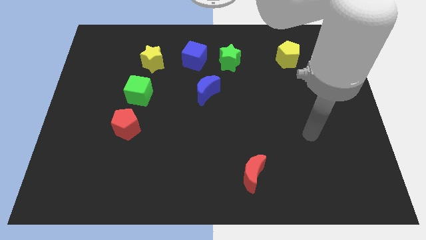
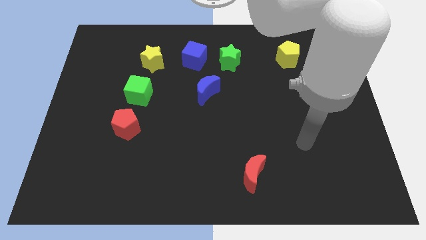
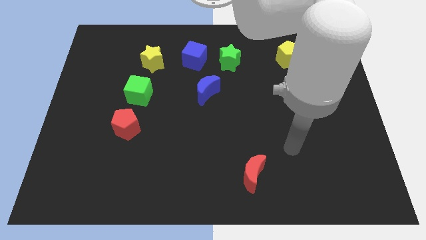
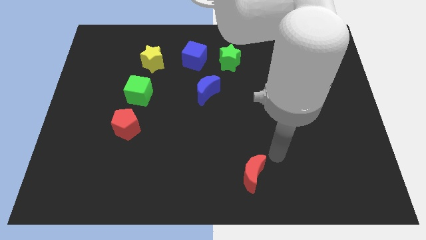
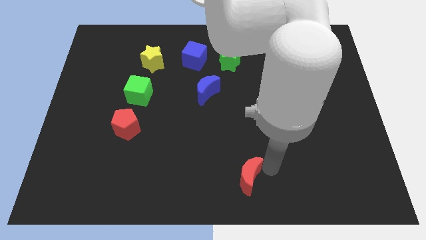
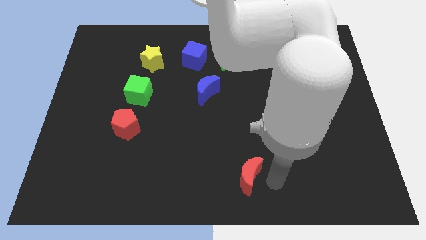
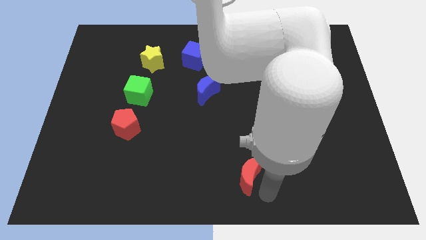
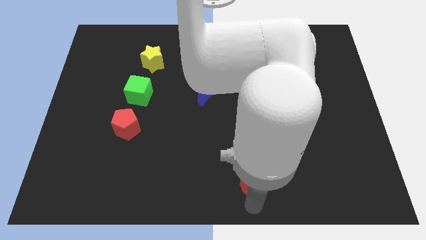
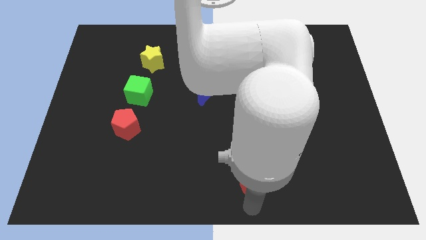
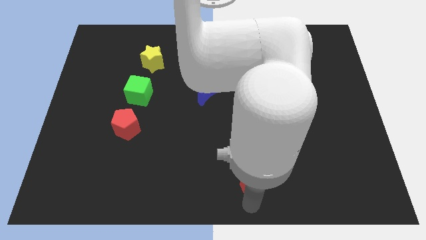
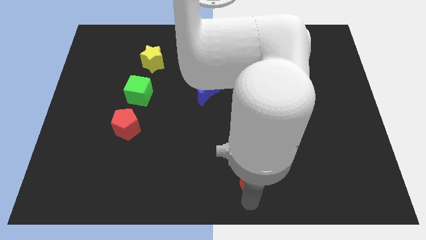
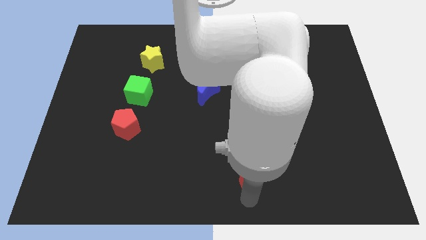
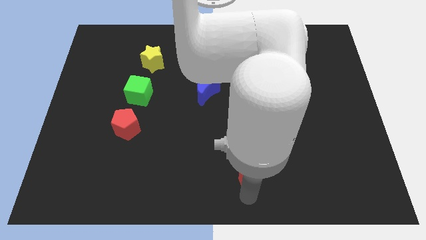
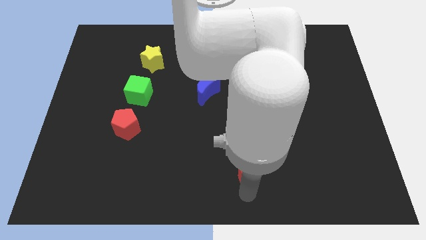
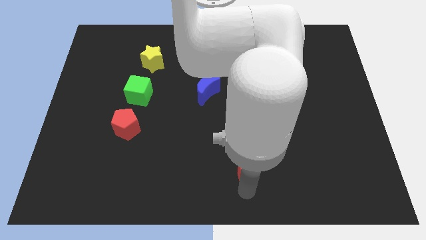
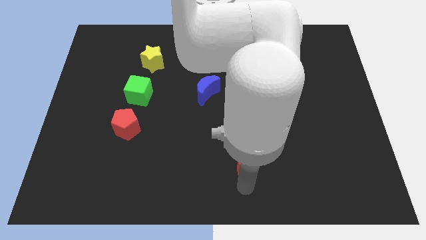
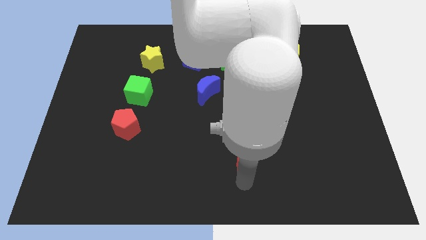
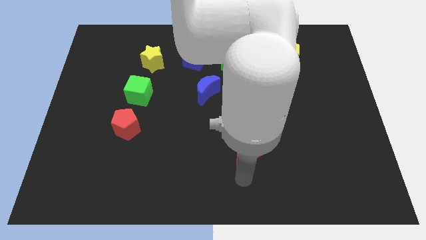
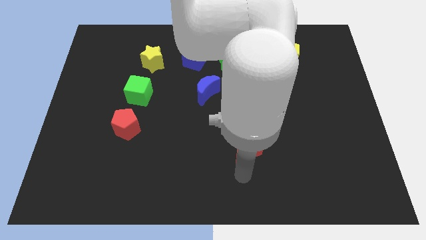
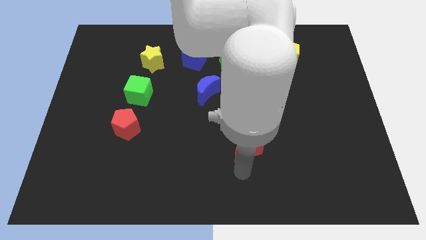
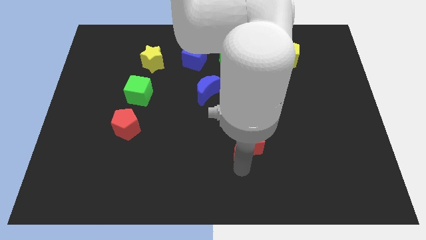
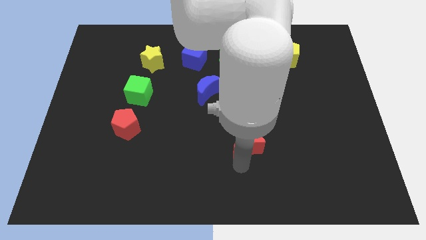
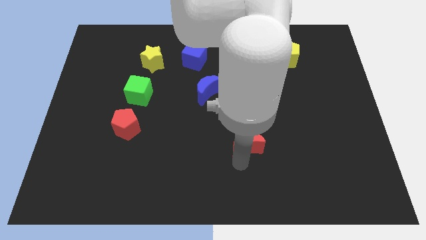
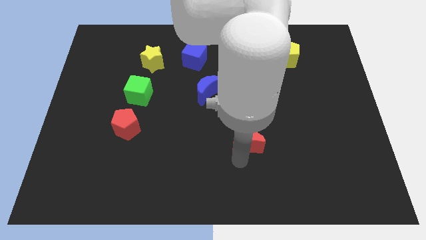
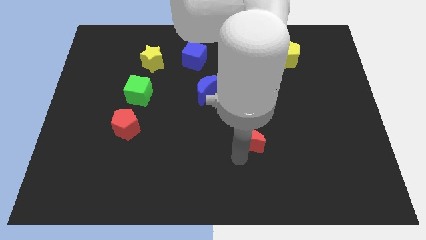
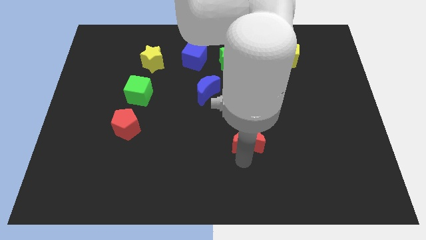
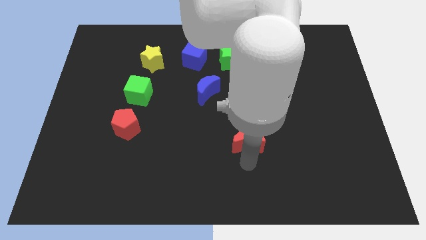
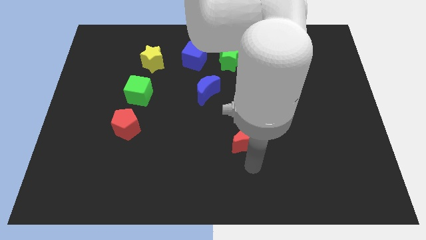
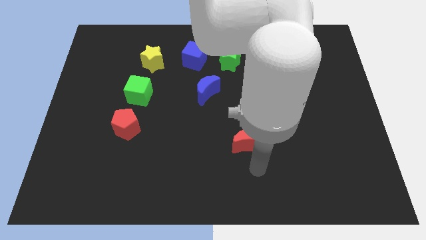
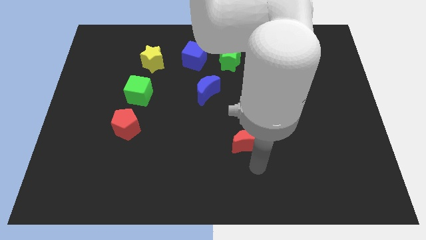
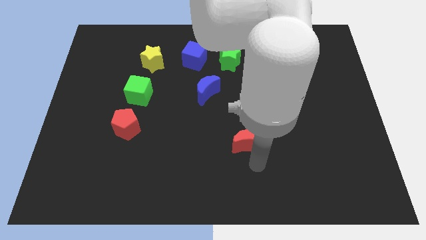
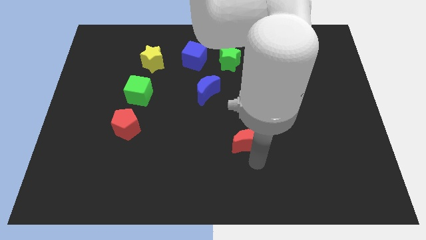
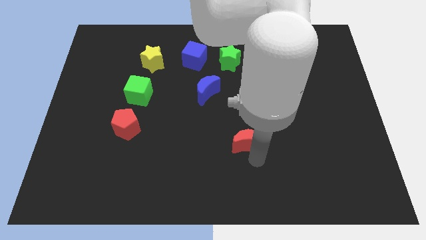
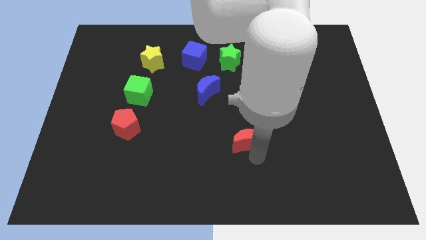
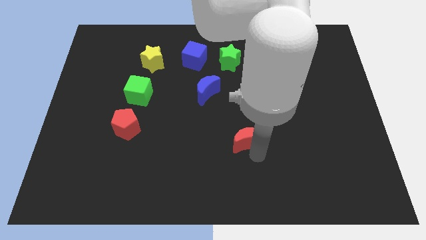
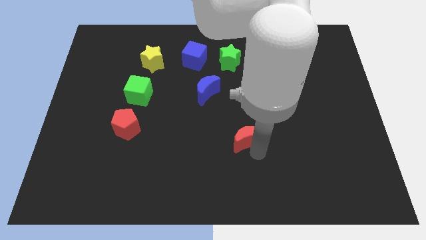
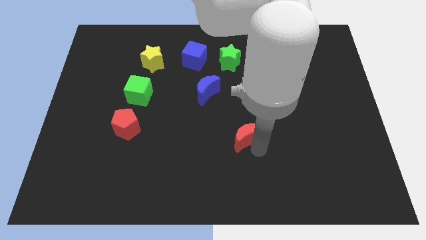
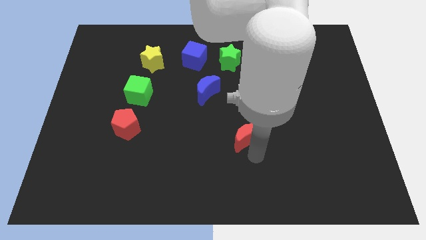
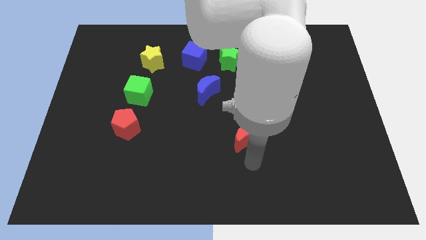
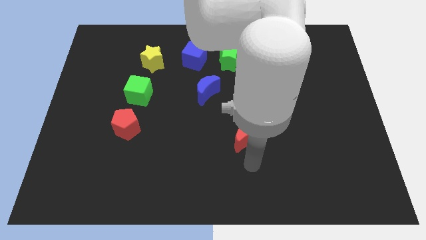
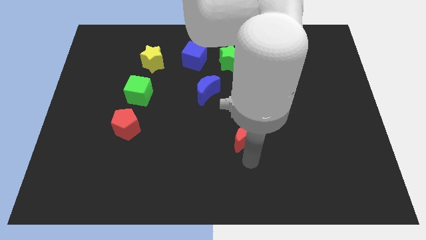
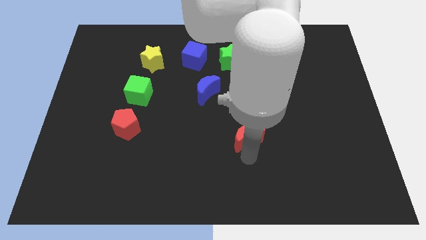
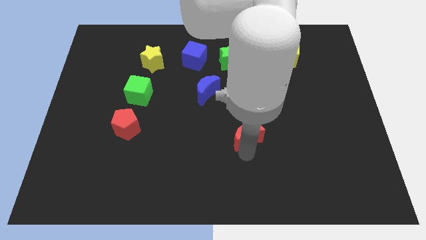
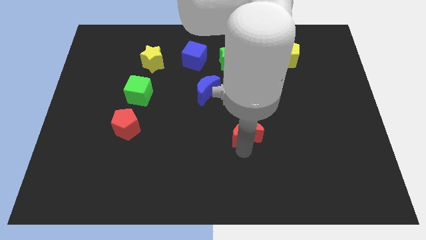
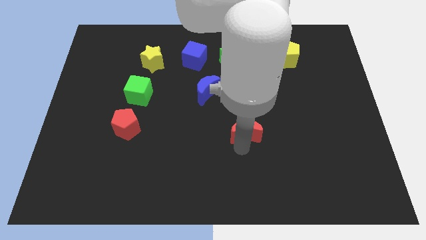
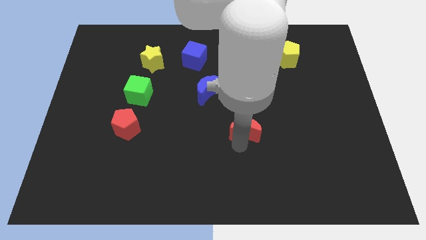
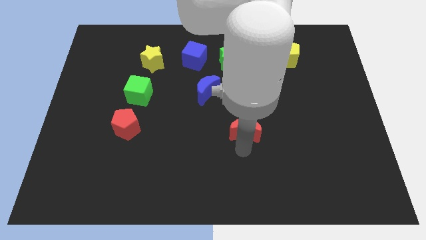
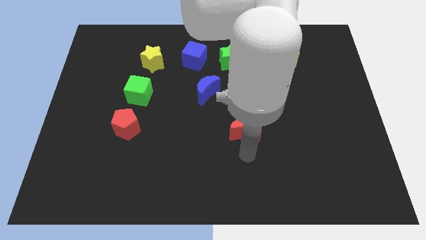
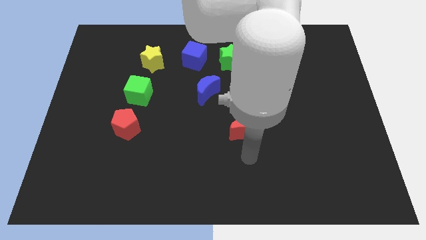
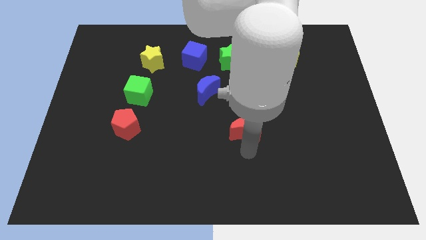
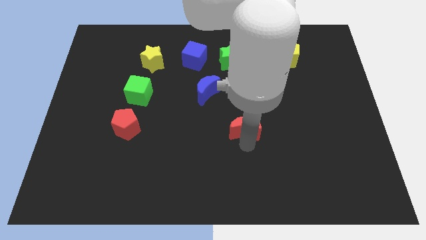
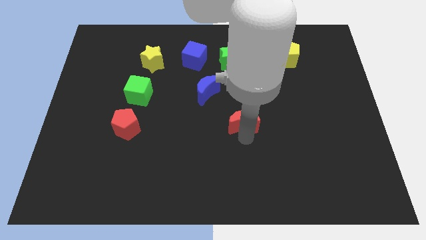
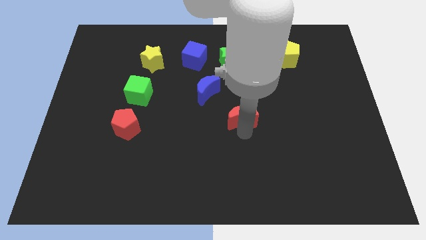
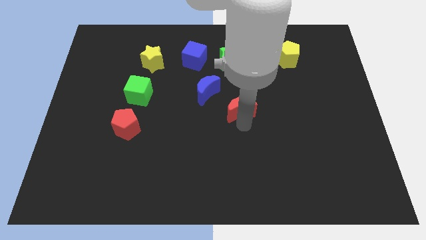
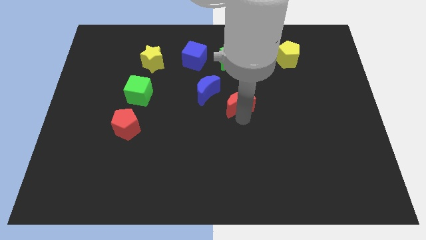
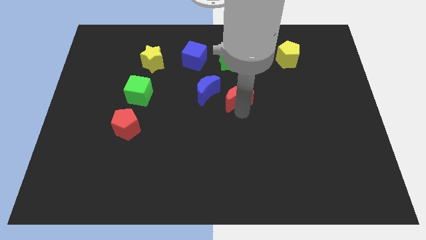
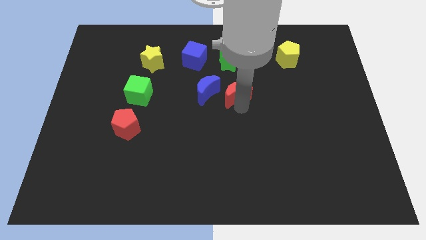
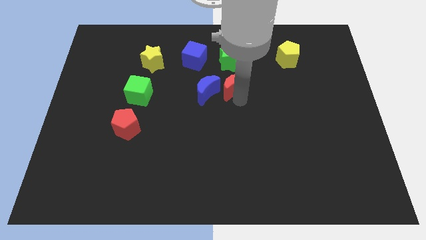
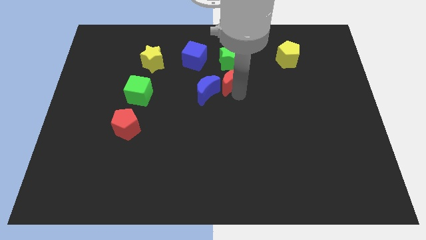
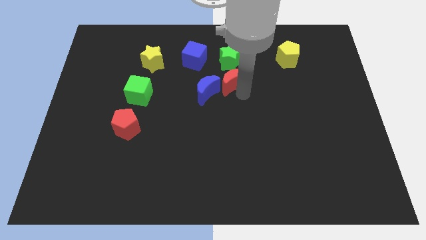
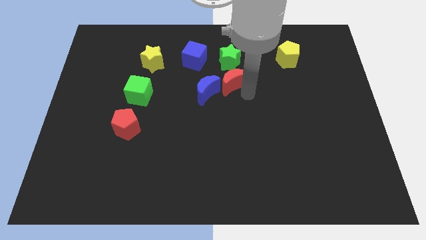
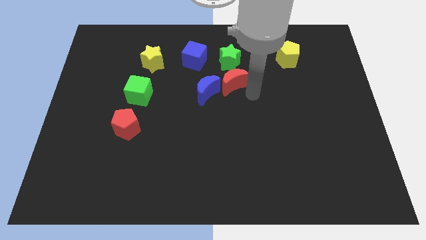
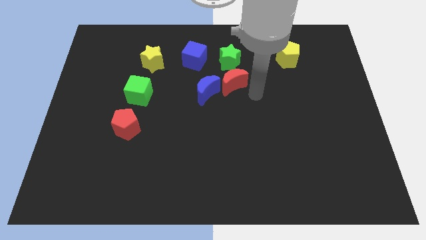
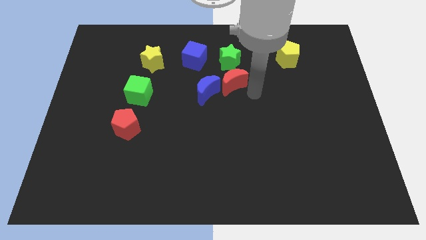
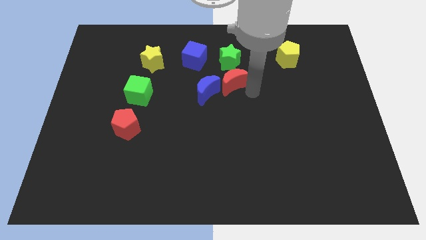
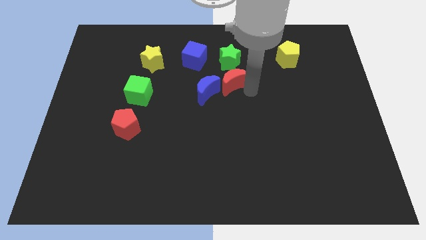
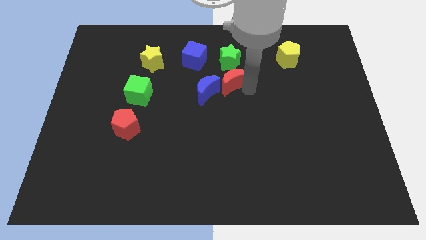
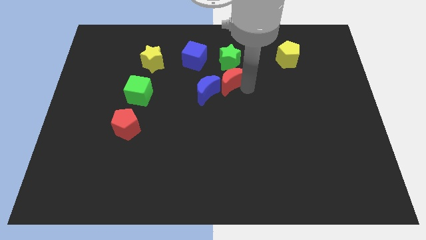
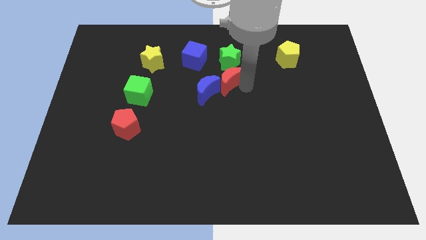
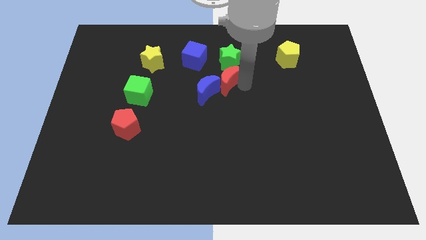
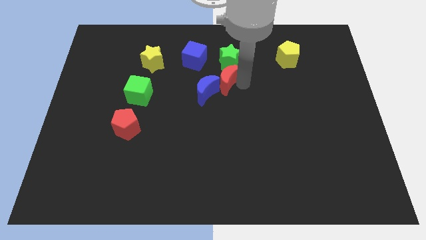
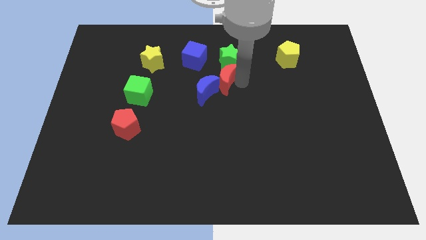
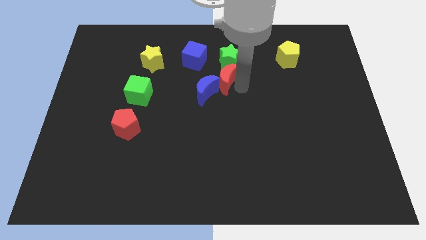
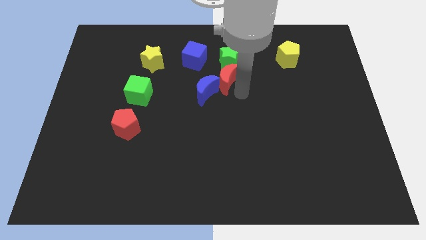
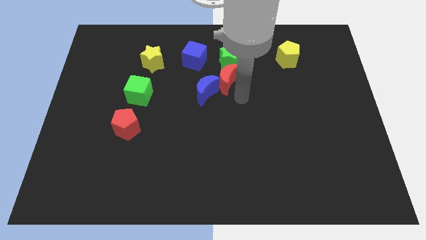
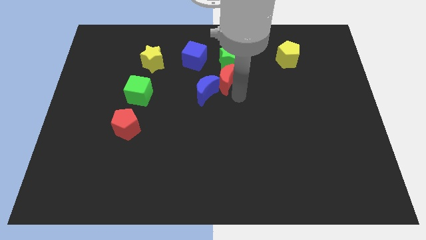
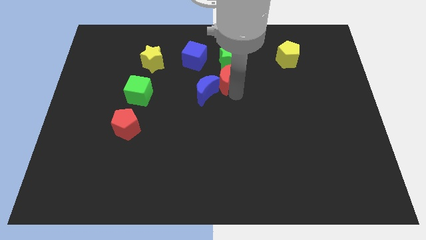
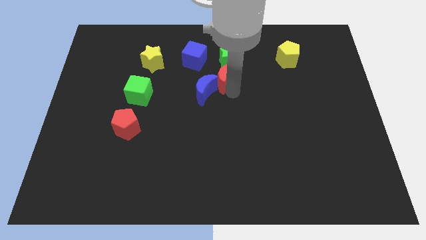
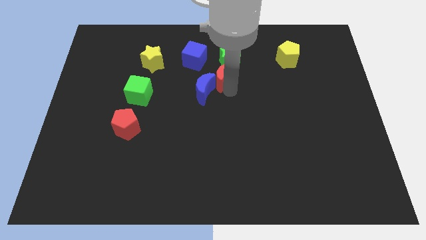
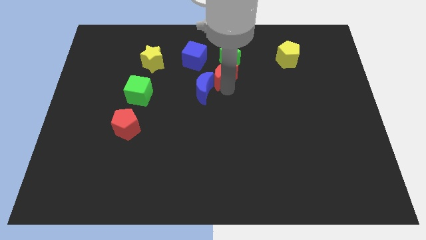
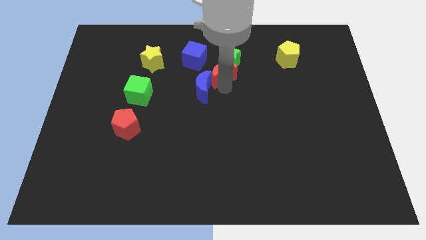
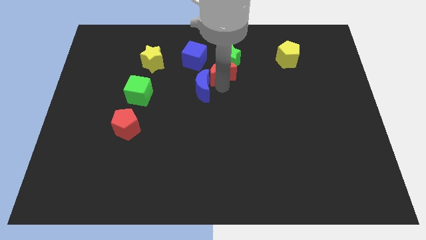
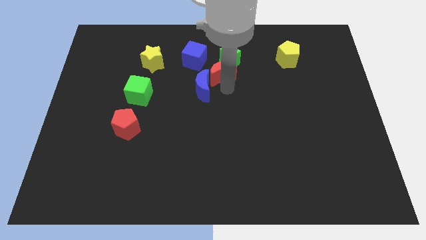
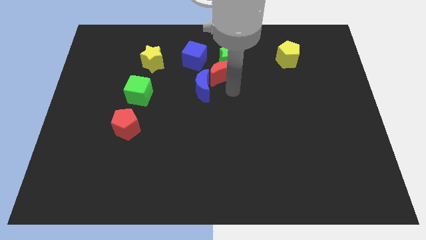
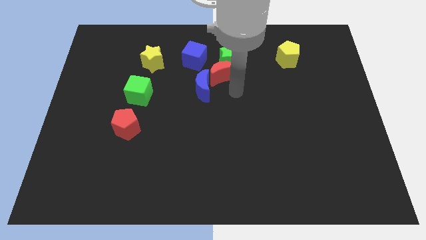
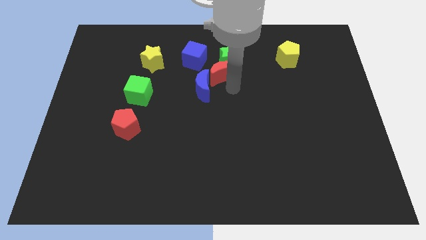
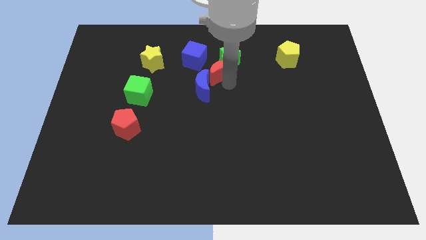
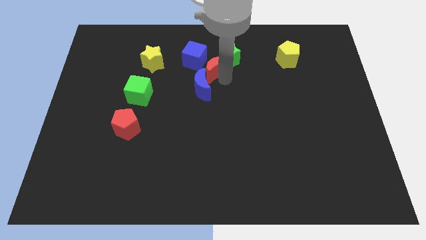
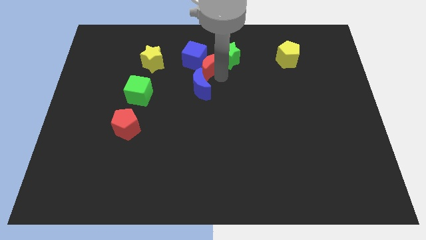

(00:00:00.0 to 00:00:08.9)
push the red moon to the right of the yellow star
